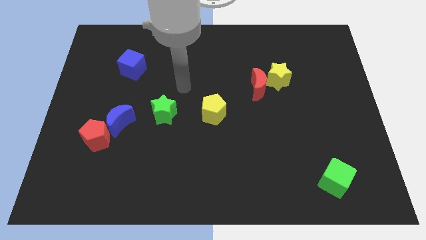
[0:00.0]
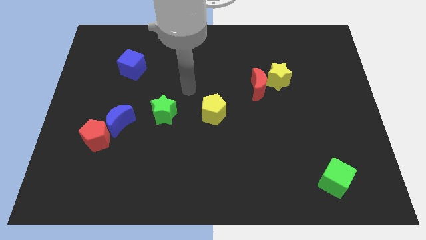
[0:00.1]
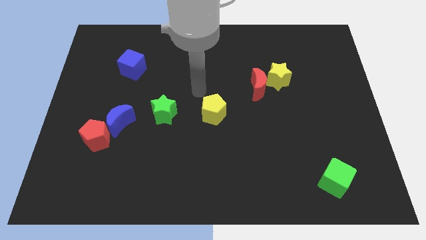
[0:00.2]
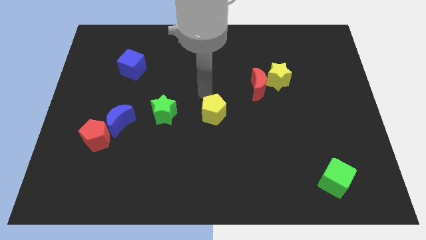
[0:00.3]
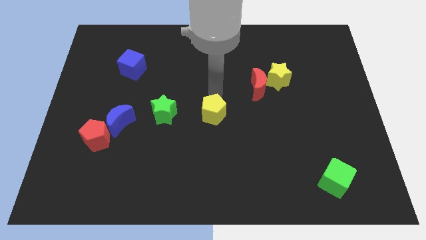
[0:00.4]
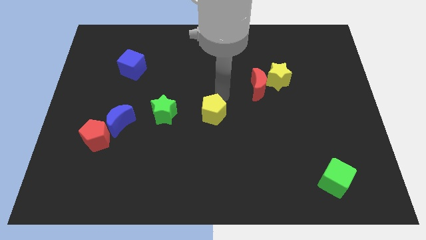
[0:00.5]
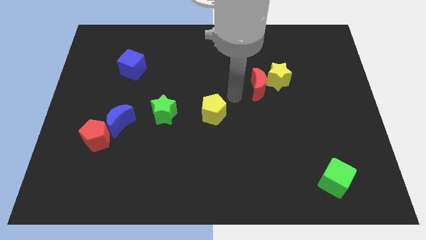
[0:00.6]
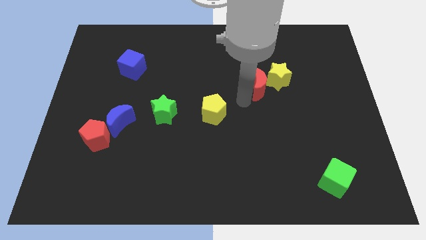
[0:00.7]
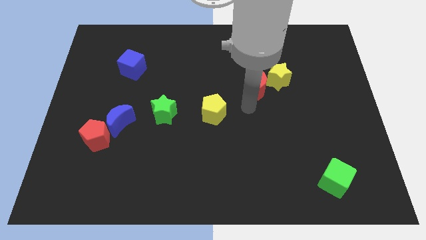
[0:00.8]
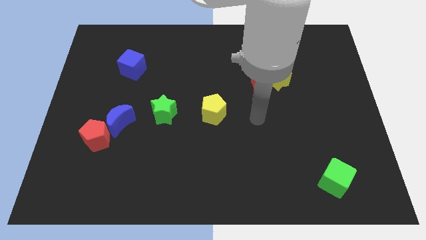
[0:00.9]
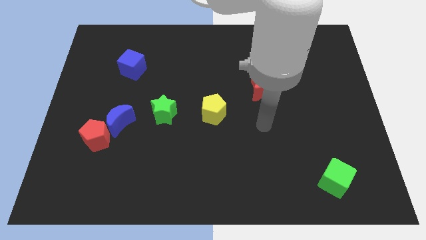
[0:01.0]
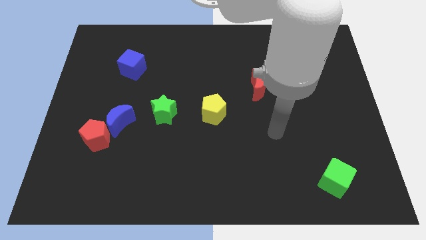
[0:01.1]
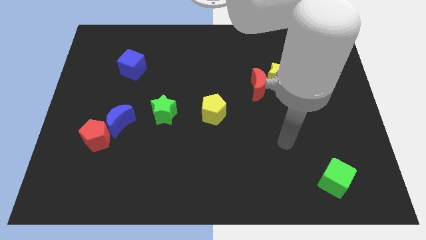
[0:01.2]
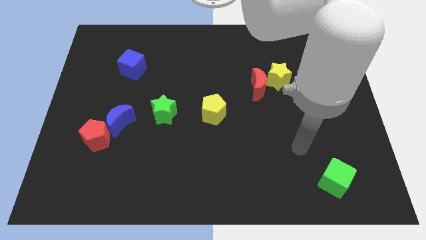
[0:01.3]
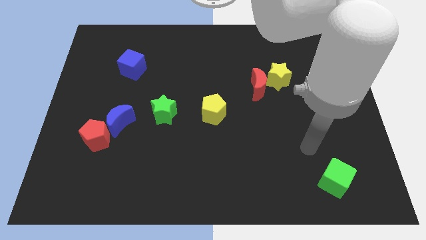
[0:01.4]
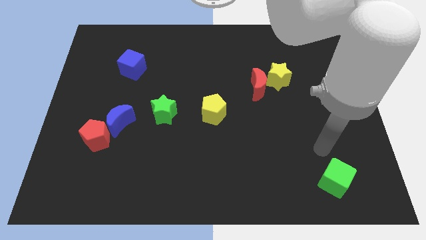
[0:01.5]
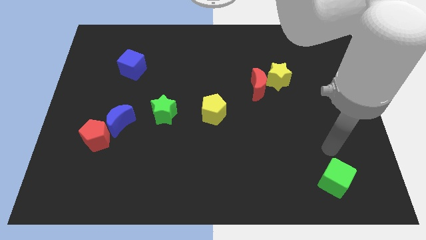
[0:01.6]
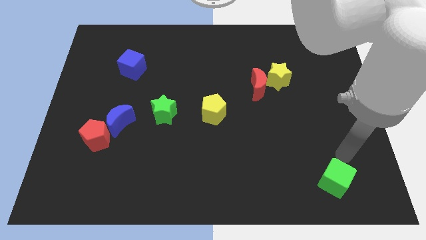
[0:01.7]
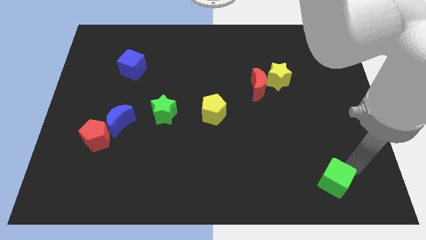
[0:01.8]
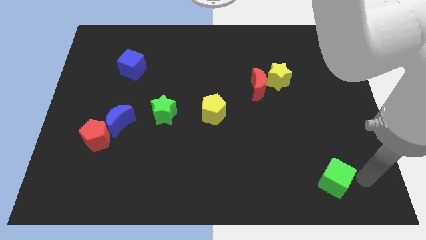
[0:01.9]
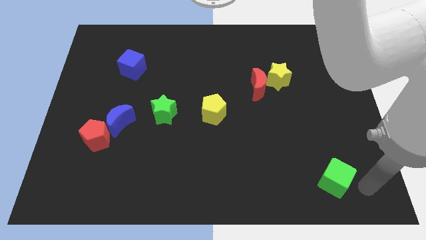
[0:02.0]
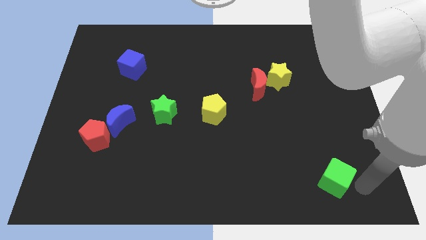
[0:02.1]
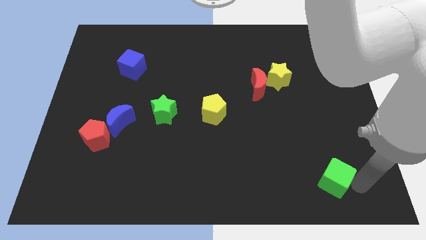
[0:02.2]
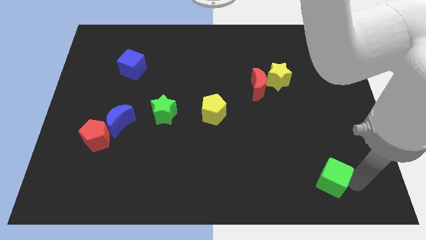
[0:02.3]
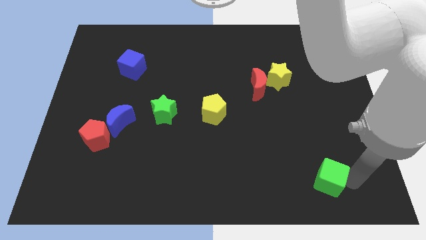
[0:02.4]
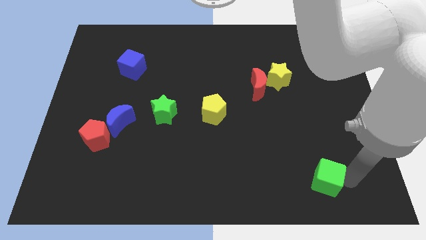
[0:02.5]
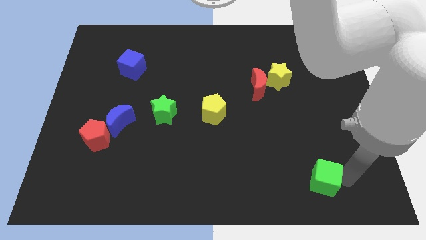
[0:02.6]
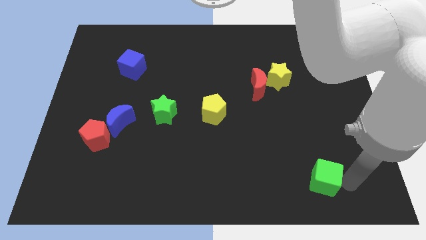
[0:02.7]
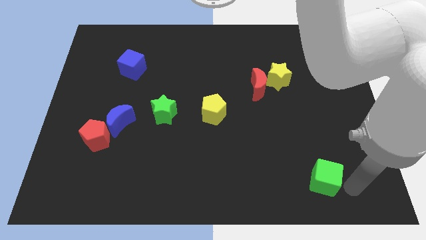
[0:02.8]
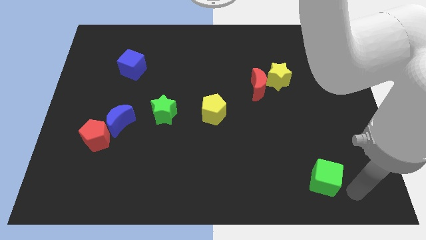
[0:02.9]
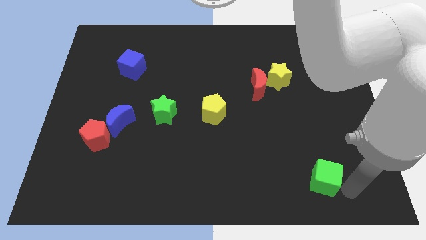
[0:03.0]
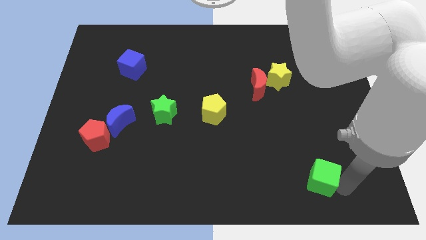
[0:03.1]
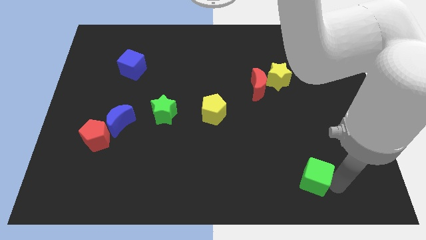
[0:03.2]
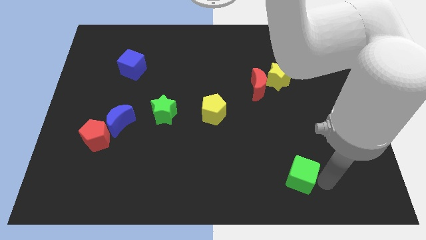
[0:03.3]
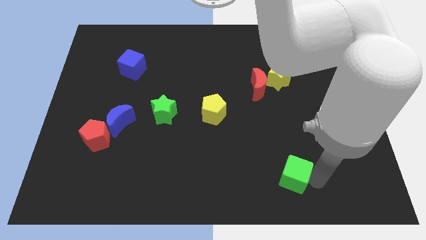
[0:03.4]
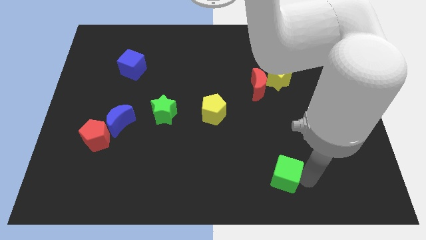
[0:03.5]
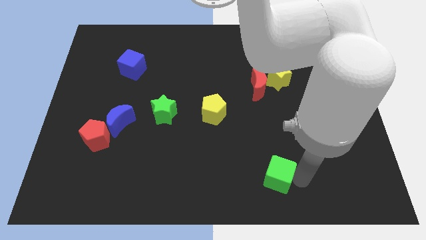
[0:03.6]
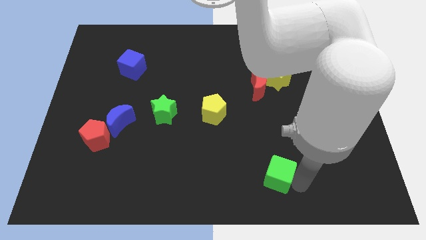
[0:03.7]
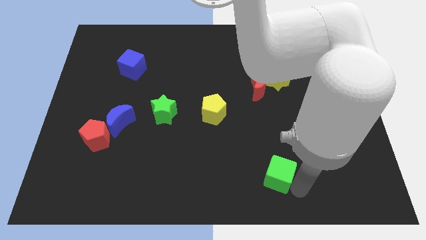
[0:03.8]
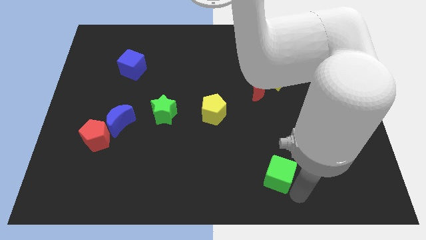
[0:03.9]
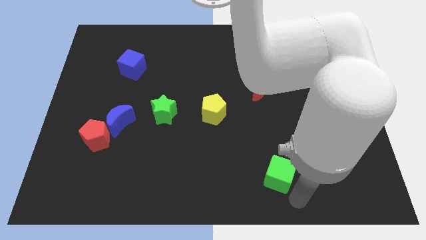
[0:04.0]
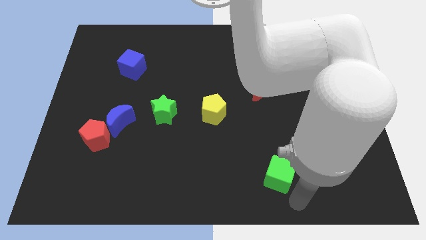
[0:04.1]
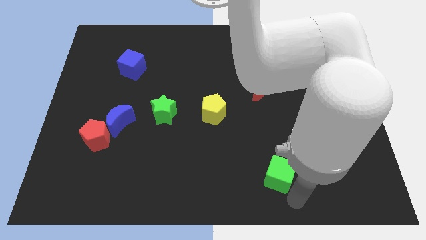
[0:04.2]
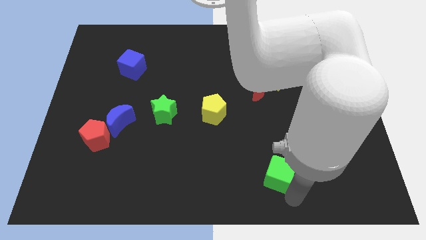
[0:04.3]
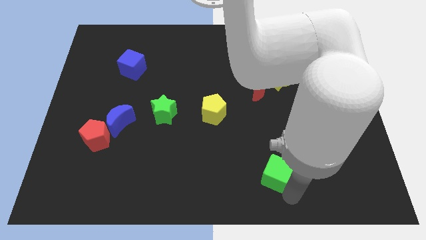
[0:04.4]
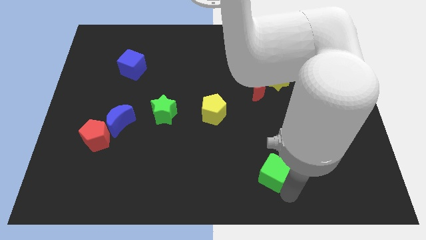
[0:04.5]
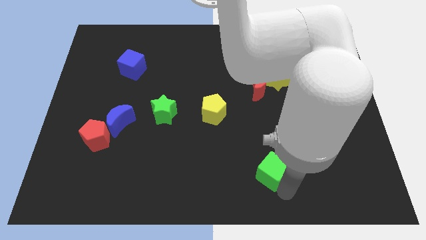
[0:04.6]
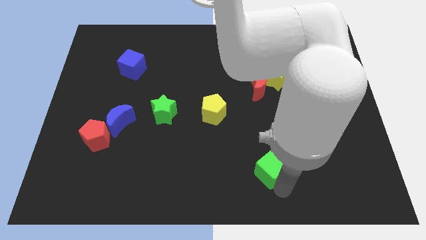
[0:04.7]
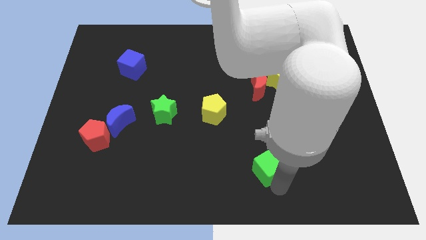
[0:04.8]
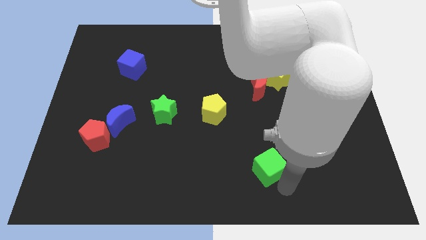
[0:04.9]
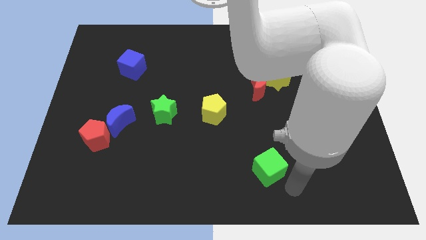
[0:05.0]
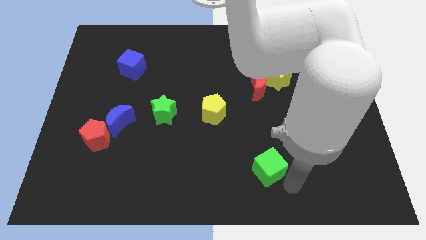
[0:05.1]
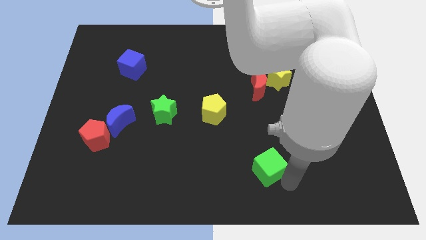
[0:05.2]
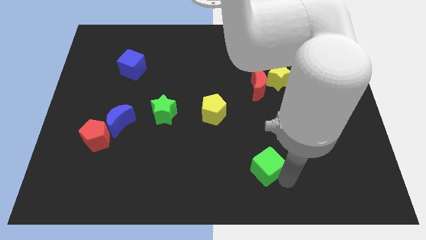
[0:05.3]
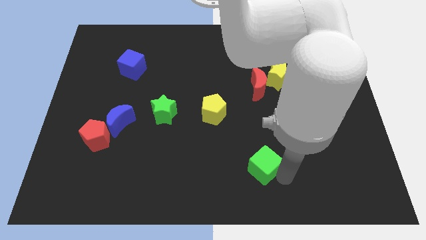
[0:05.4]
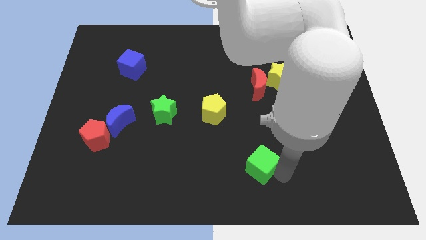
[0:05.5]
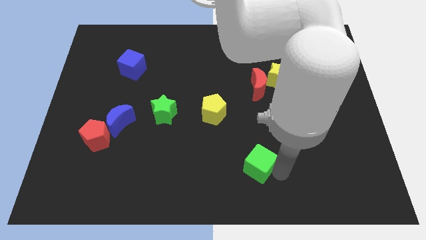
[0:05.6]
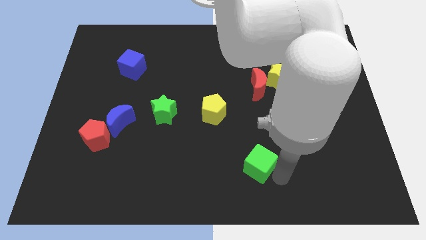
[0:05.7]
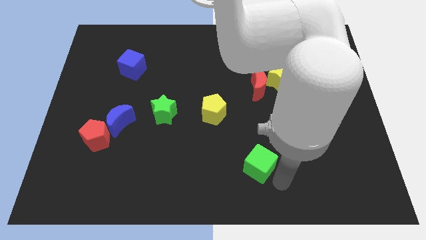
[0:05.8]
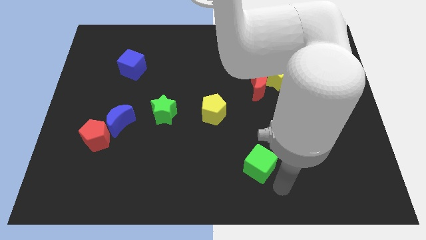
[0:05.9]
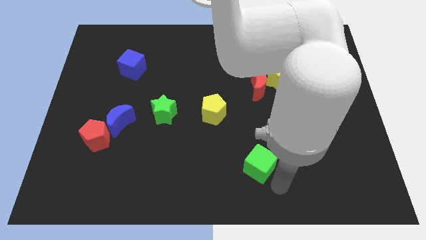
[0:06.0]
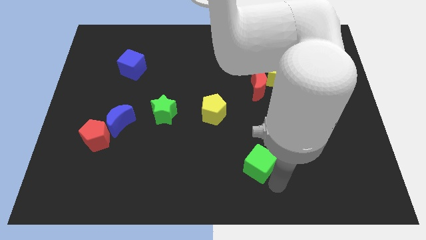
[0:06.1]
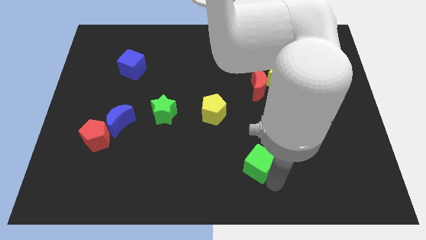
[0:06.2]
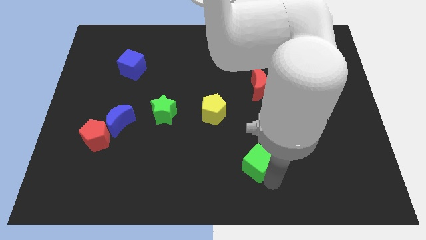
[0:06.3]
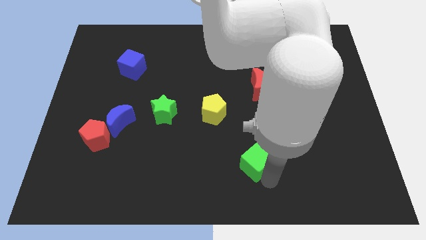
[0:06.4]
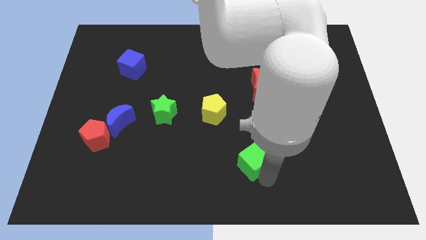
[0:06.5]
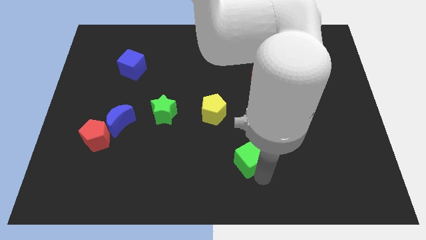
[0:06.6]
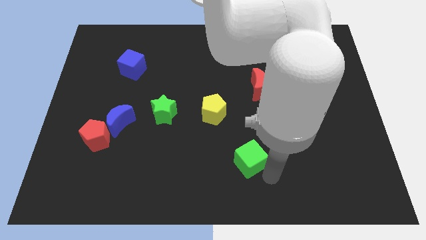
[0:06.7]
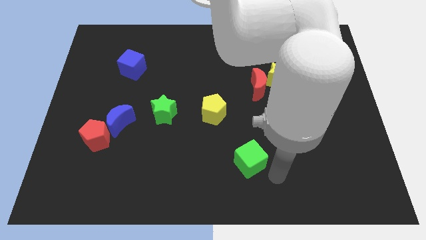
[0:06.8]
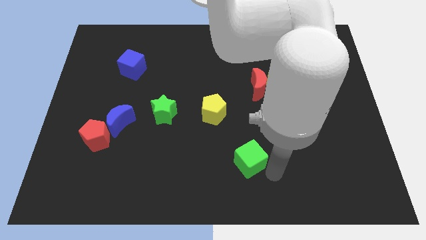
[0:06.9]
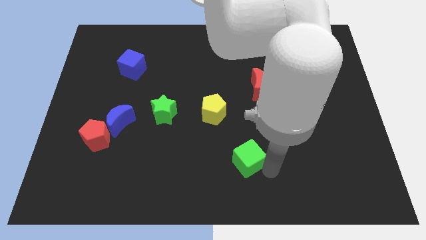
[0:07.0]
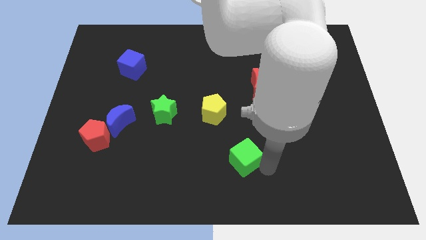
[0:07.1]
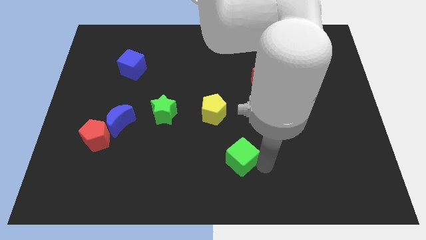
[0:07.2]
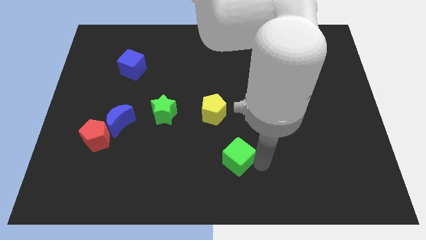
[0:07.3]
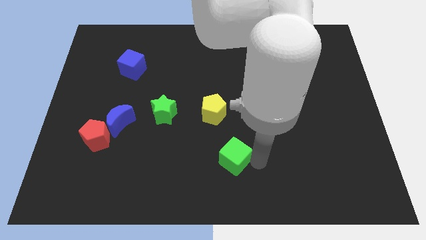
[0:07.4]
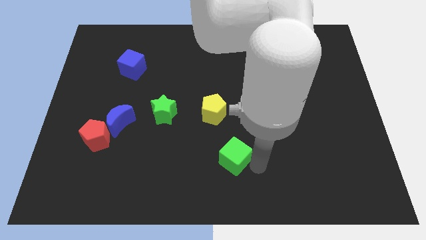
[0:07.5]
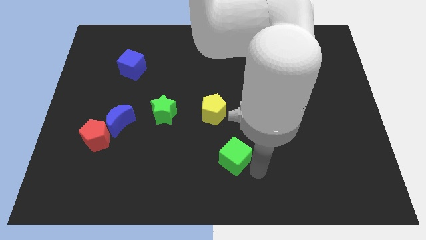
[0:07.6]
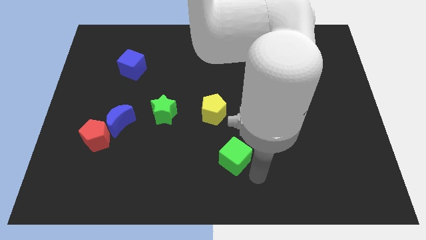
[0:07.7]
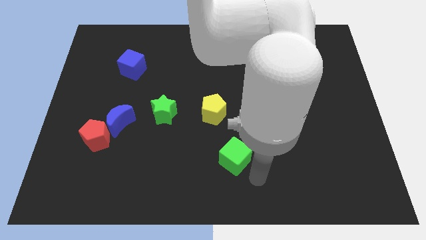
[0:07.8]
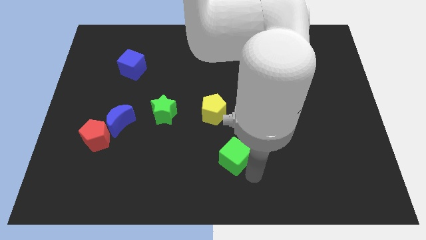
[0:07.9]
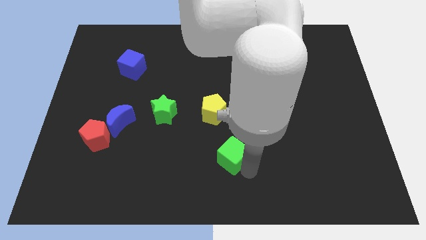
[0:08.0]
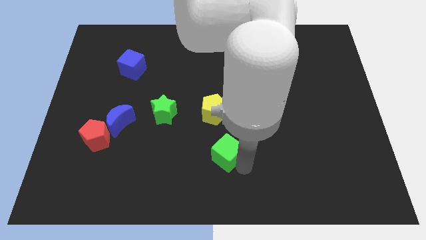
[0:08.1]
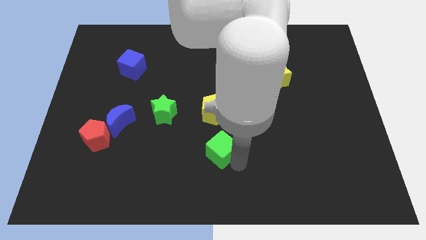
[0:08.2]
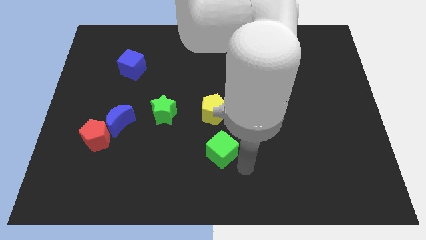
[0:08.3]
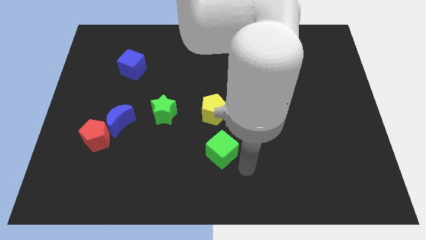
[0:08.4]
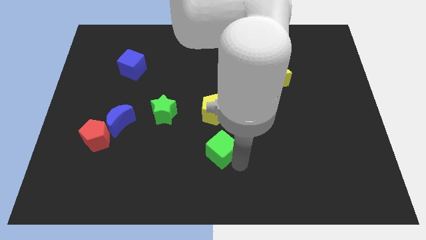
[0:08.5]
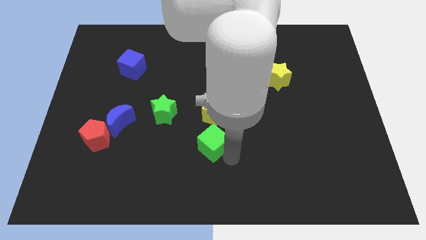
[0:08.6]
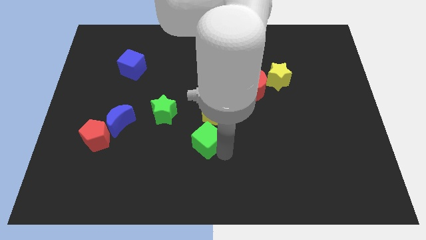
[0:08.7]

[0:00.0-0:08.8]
put the green cube diagonally down and to the left of the yellow pentagon
